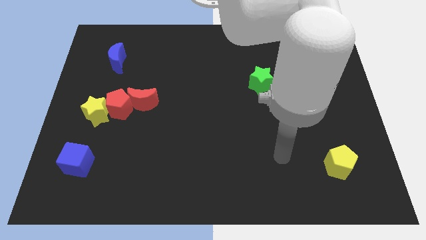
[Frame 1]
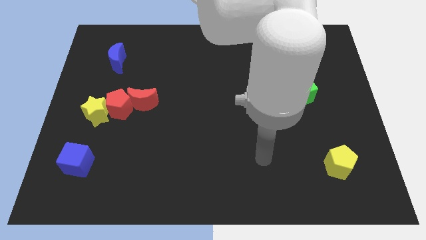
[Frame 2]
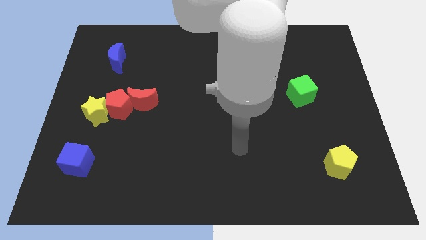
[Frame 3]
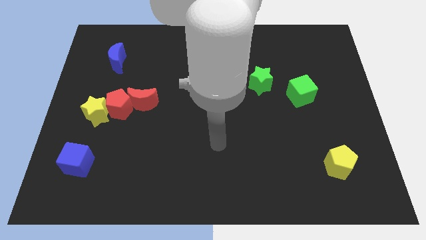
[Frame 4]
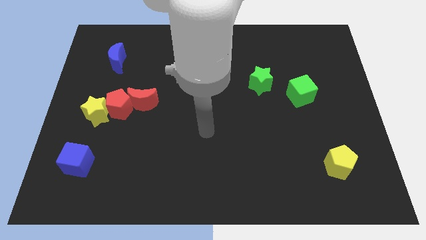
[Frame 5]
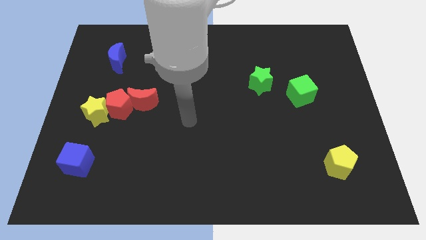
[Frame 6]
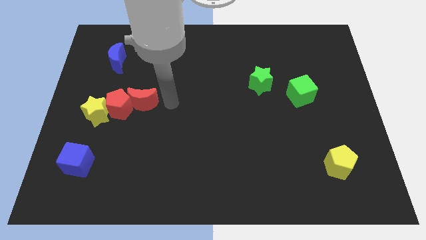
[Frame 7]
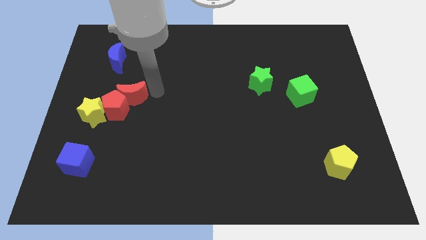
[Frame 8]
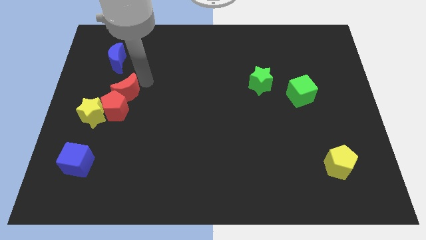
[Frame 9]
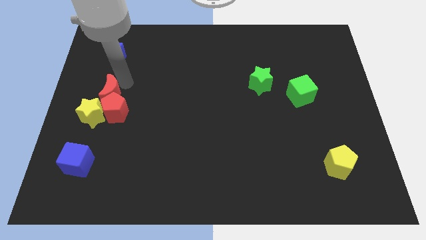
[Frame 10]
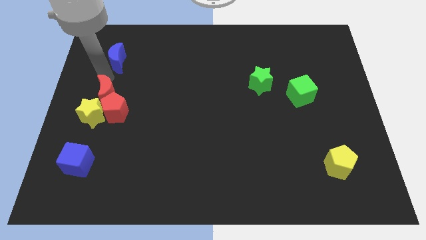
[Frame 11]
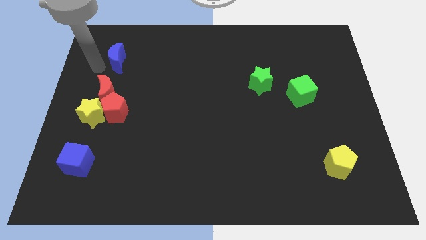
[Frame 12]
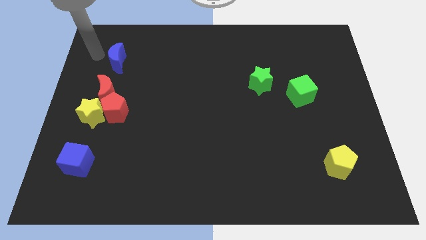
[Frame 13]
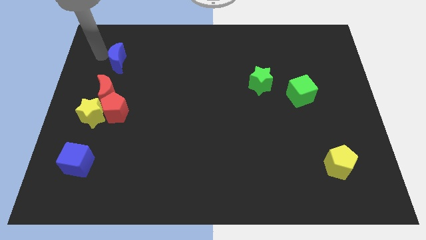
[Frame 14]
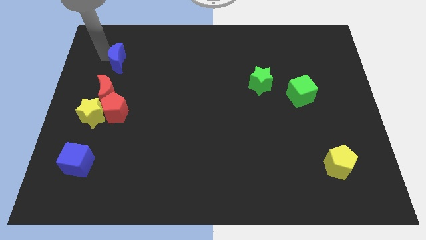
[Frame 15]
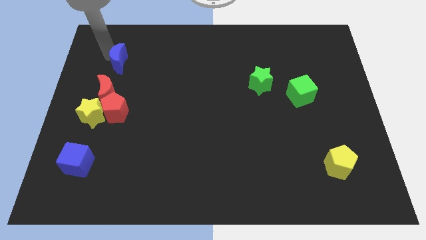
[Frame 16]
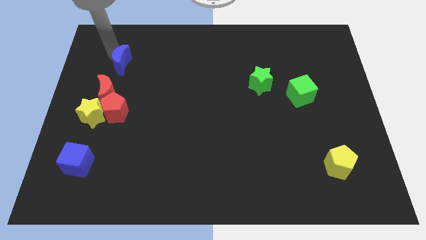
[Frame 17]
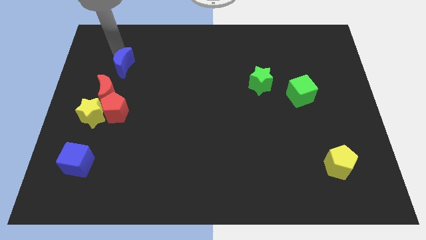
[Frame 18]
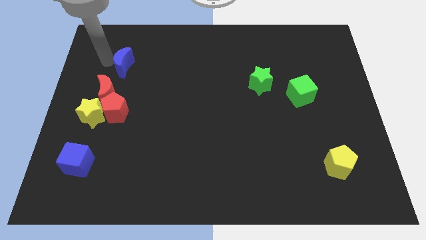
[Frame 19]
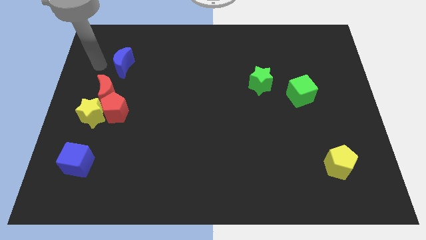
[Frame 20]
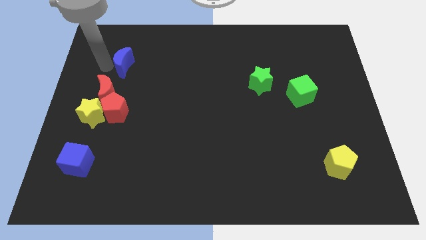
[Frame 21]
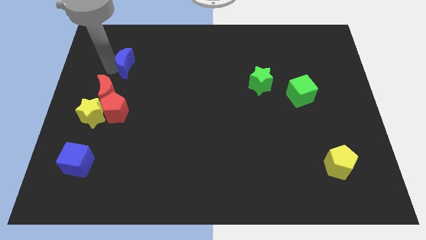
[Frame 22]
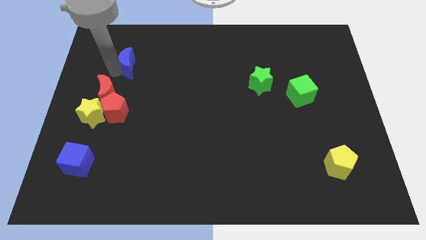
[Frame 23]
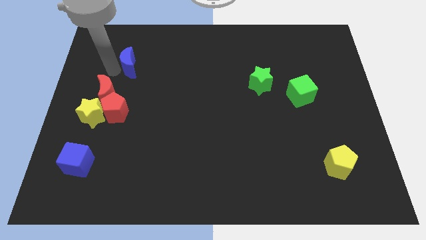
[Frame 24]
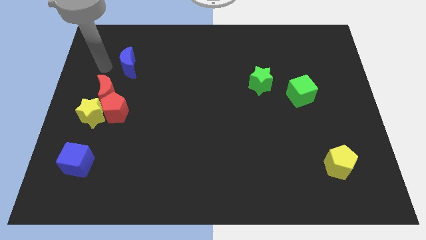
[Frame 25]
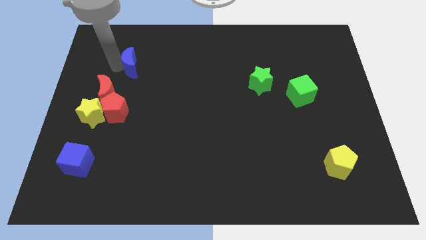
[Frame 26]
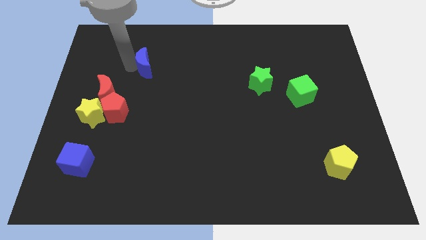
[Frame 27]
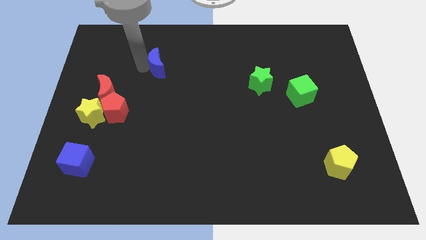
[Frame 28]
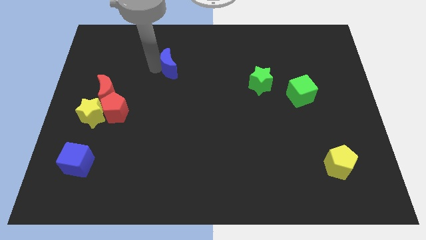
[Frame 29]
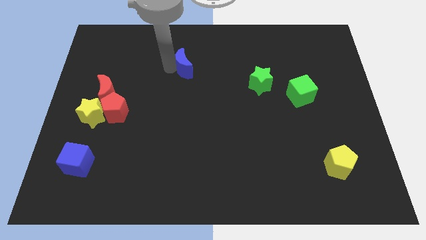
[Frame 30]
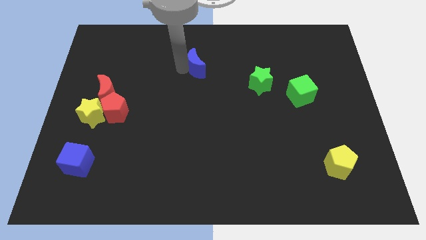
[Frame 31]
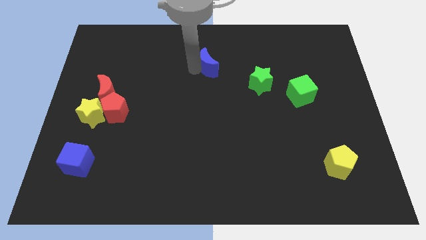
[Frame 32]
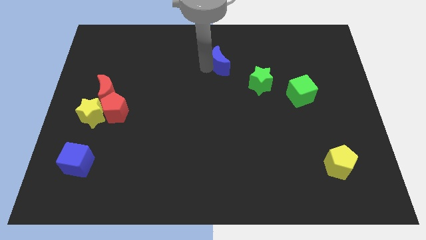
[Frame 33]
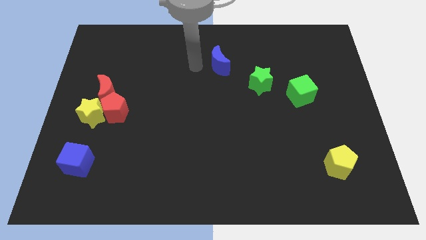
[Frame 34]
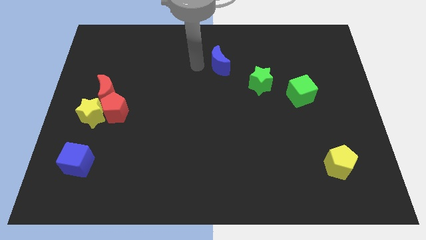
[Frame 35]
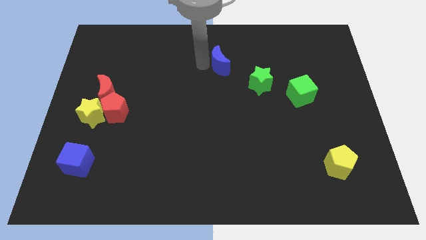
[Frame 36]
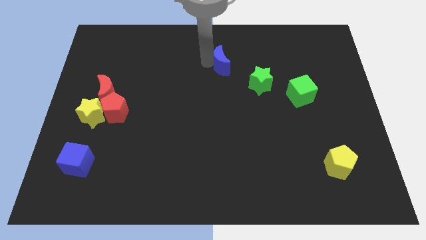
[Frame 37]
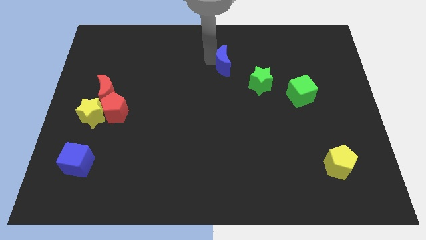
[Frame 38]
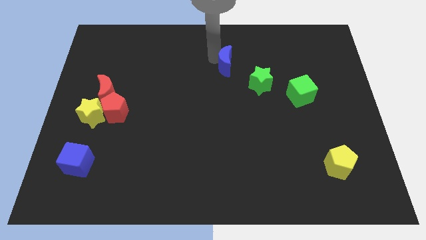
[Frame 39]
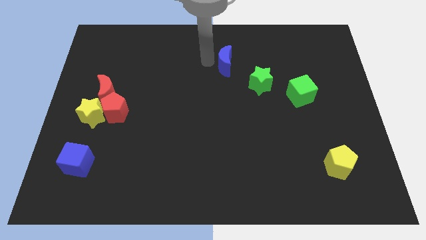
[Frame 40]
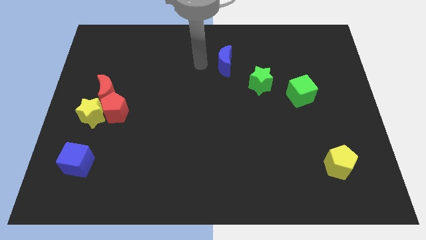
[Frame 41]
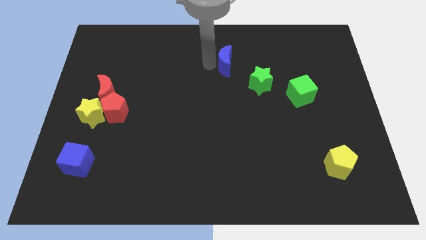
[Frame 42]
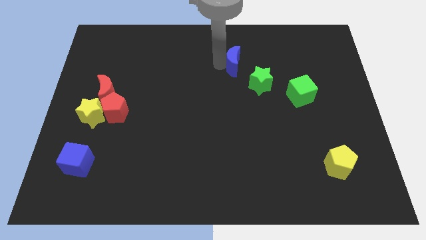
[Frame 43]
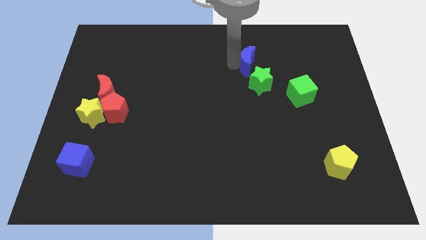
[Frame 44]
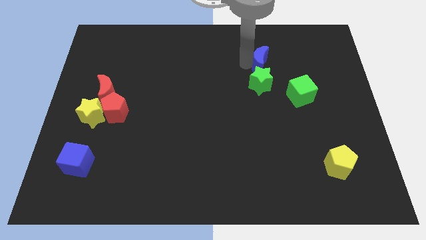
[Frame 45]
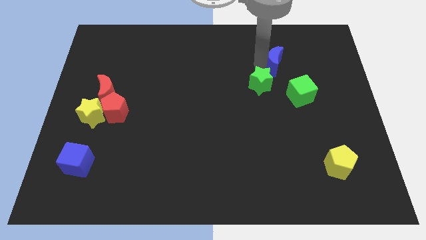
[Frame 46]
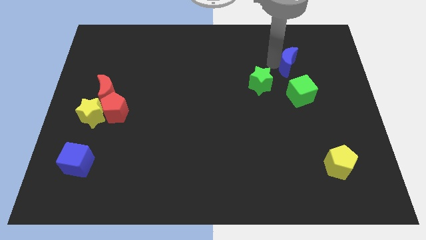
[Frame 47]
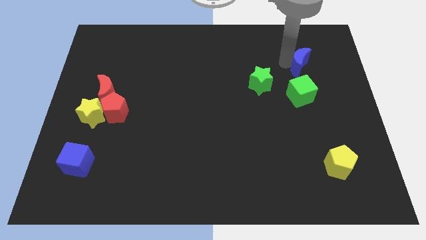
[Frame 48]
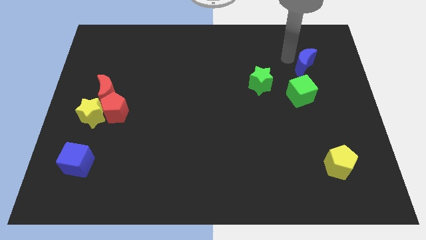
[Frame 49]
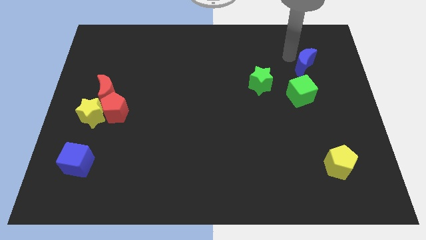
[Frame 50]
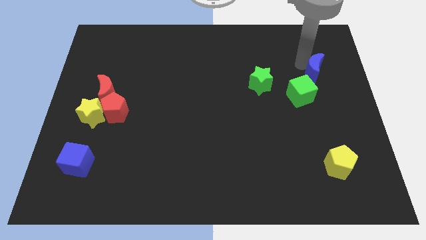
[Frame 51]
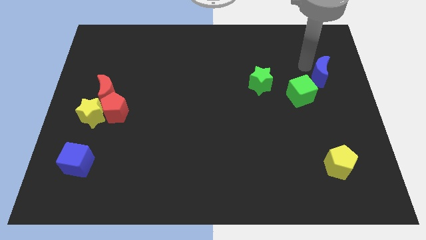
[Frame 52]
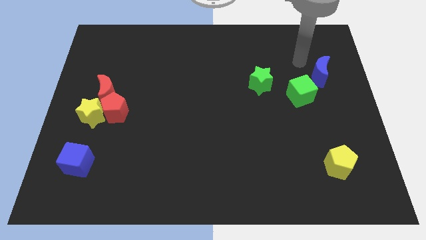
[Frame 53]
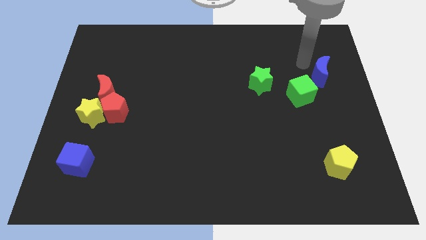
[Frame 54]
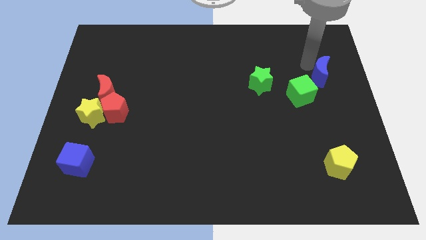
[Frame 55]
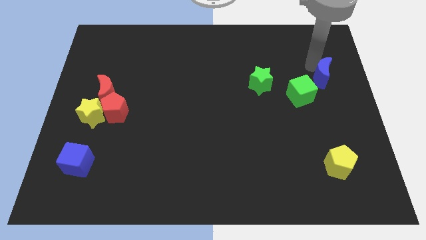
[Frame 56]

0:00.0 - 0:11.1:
move the blue moon to the center right

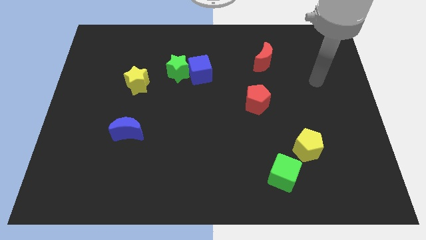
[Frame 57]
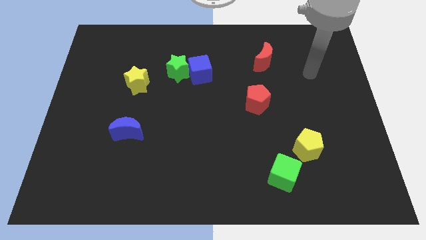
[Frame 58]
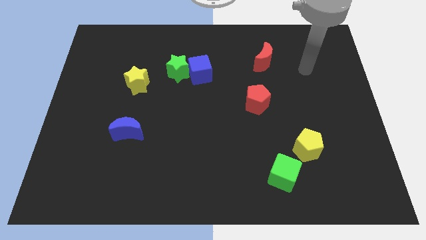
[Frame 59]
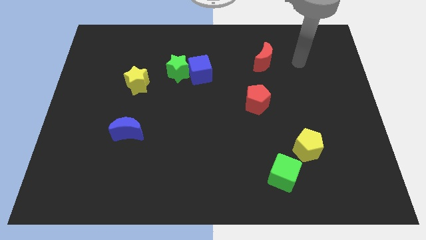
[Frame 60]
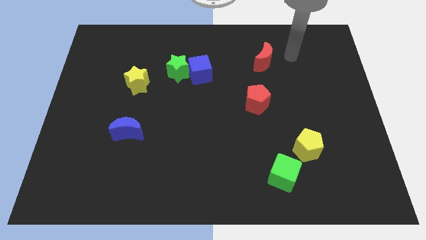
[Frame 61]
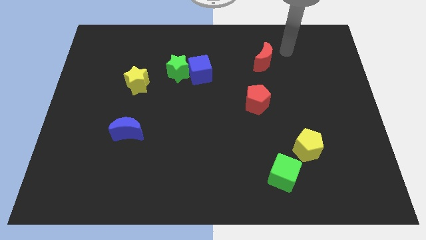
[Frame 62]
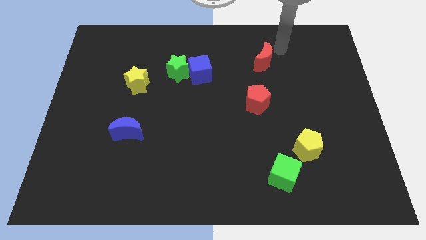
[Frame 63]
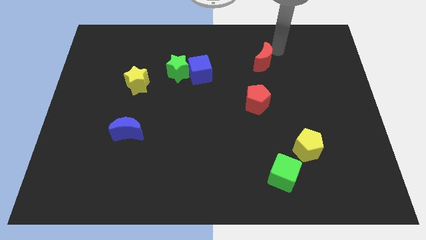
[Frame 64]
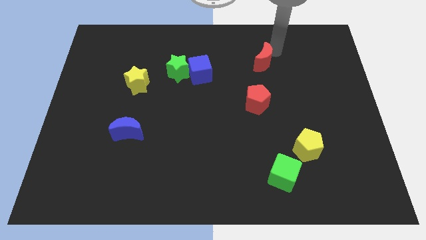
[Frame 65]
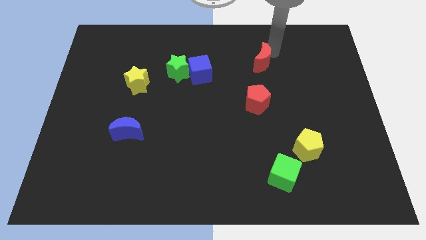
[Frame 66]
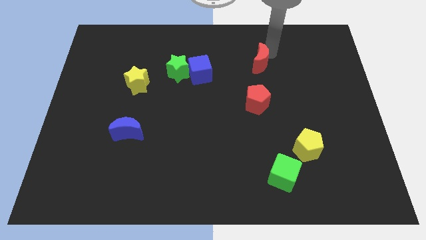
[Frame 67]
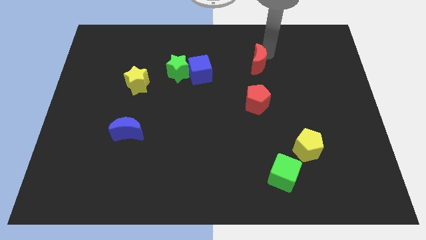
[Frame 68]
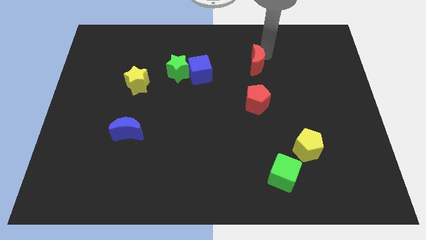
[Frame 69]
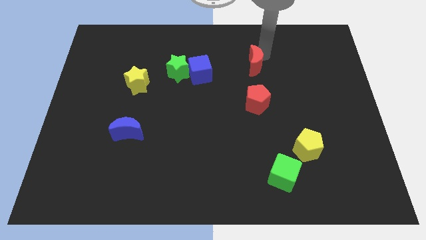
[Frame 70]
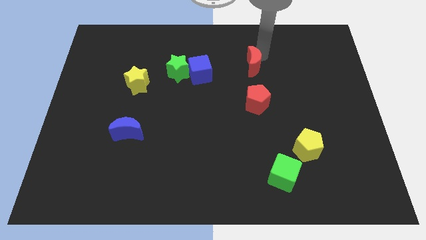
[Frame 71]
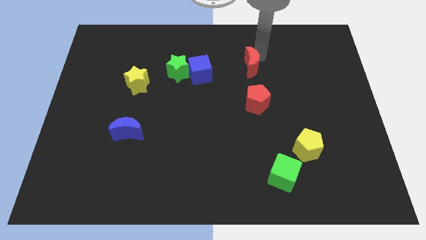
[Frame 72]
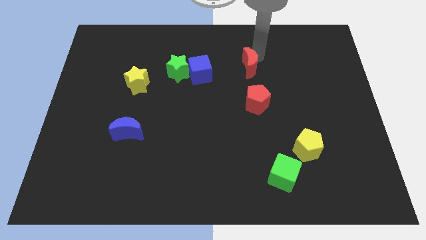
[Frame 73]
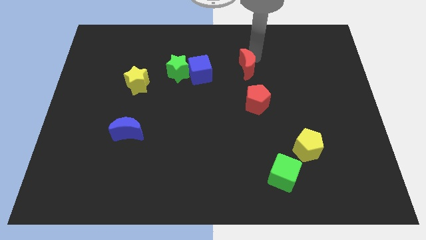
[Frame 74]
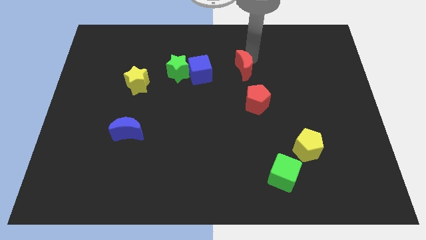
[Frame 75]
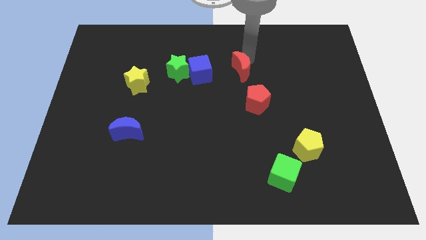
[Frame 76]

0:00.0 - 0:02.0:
put the red moon to the center of the board
